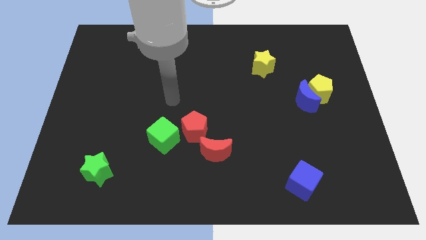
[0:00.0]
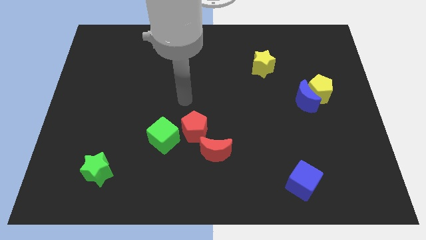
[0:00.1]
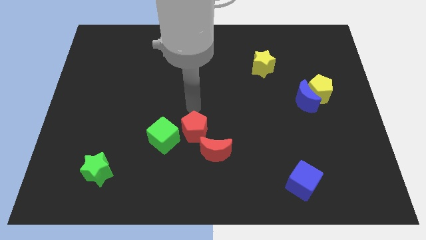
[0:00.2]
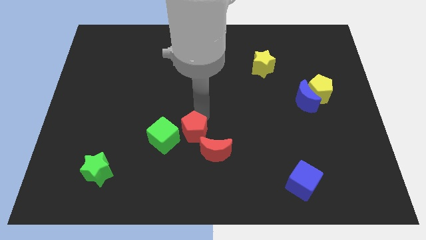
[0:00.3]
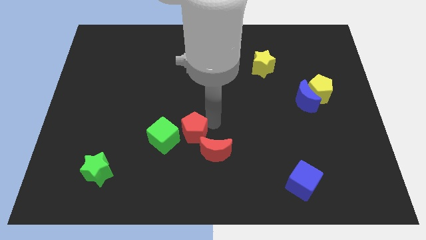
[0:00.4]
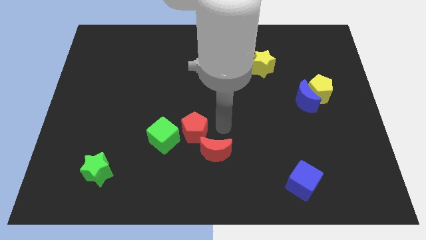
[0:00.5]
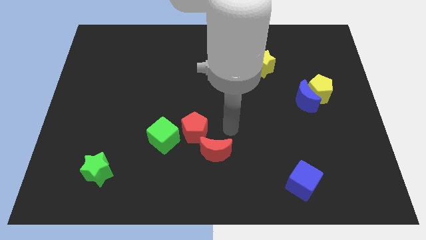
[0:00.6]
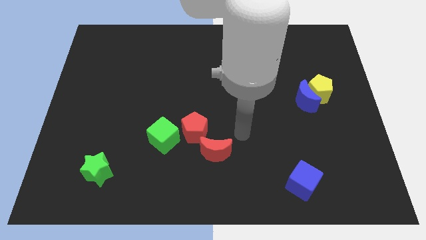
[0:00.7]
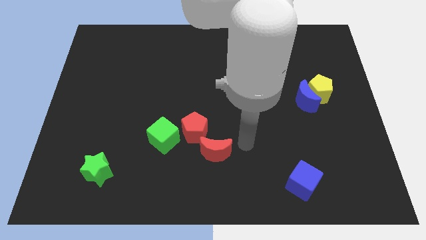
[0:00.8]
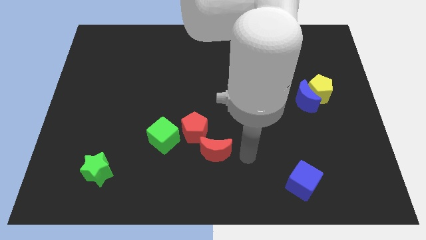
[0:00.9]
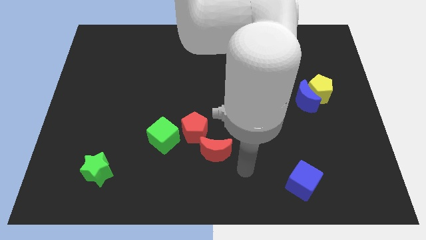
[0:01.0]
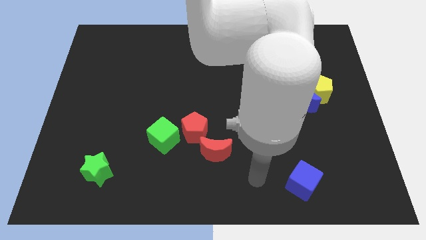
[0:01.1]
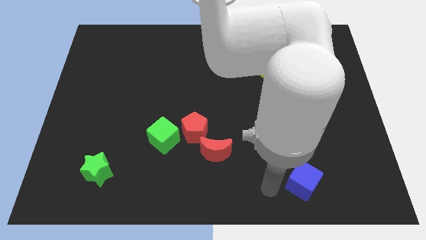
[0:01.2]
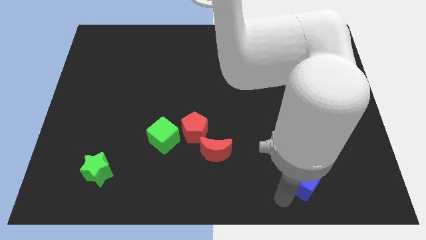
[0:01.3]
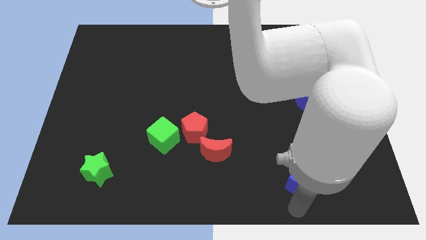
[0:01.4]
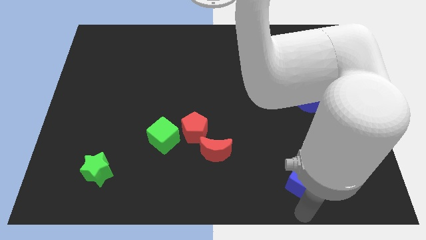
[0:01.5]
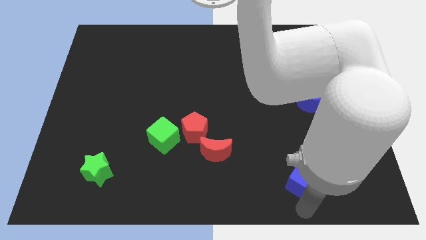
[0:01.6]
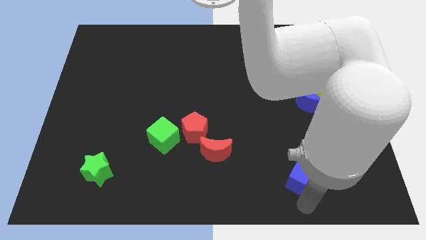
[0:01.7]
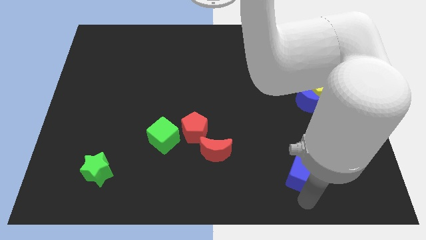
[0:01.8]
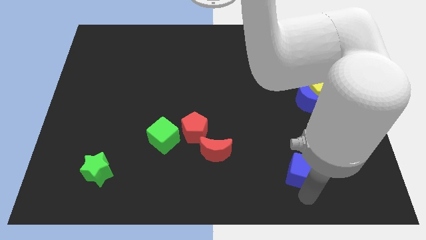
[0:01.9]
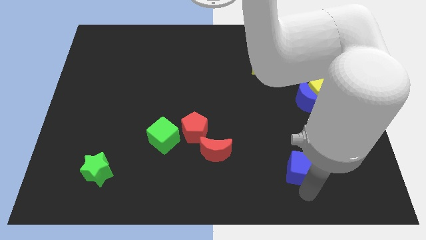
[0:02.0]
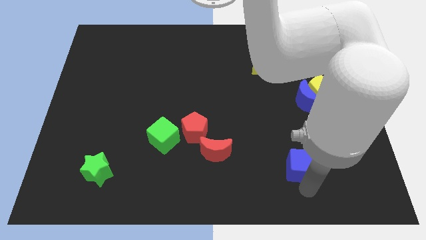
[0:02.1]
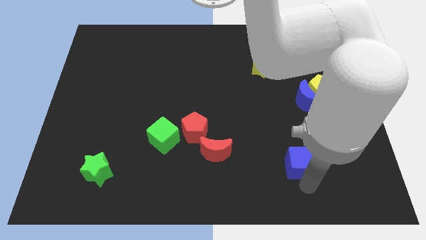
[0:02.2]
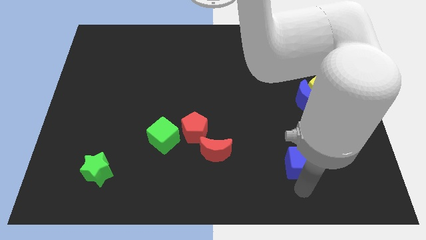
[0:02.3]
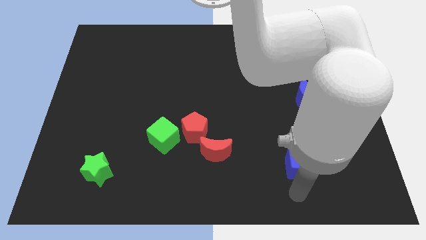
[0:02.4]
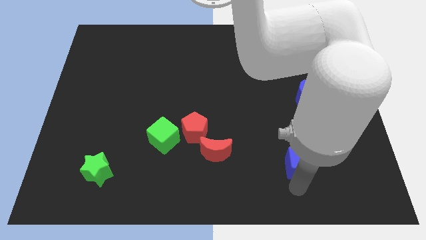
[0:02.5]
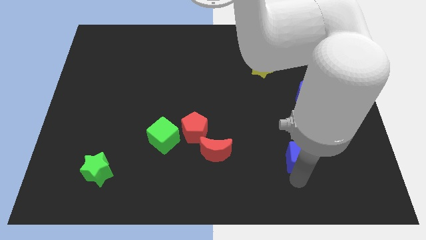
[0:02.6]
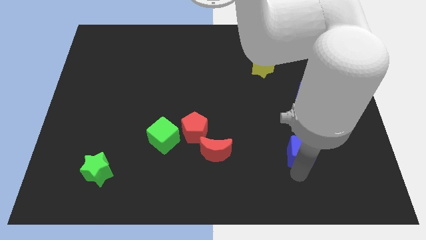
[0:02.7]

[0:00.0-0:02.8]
move the blue cube a little up

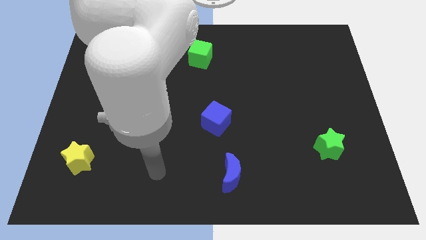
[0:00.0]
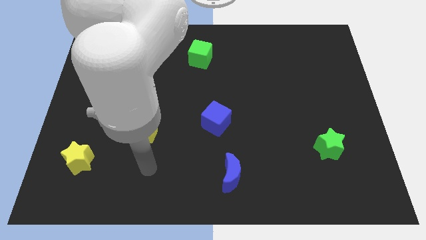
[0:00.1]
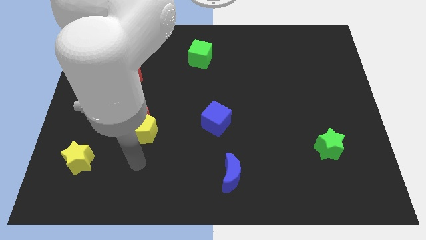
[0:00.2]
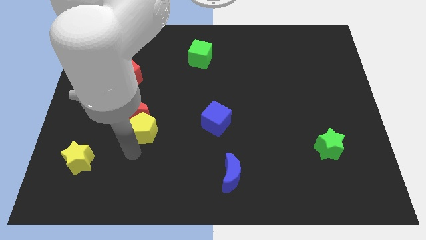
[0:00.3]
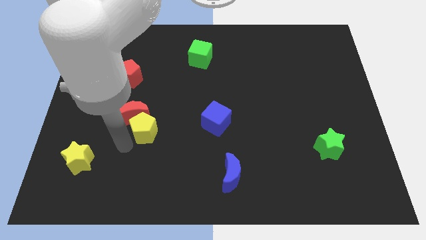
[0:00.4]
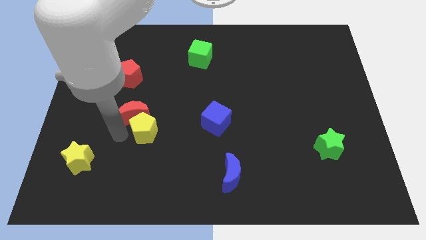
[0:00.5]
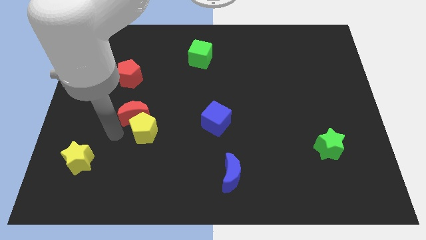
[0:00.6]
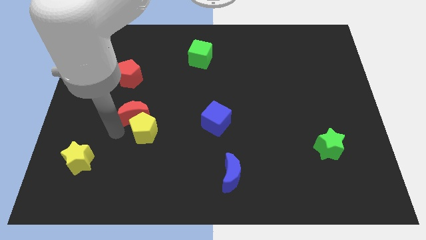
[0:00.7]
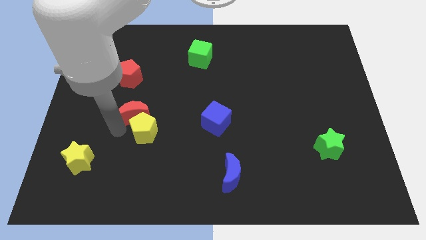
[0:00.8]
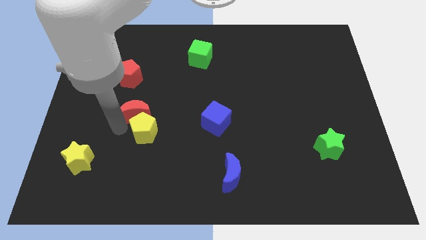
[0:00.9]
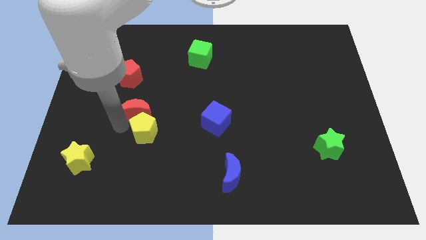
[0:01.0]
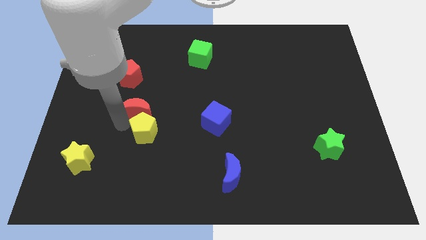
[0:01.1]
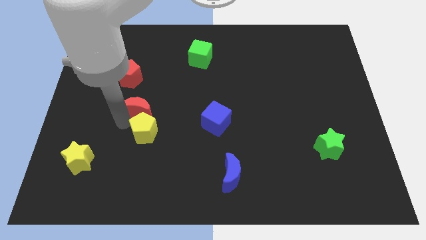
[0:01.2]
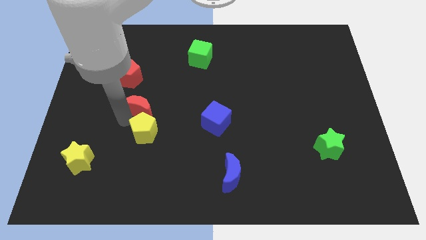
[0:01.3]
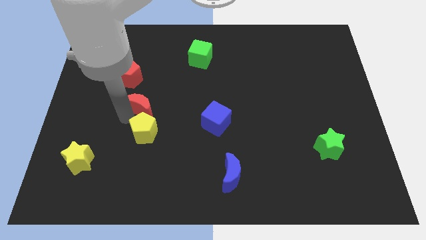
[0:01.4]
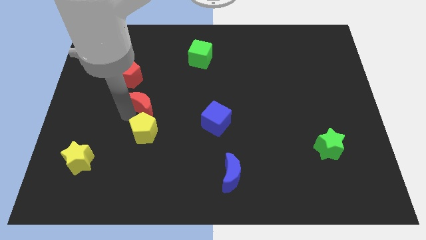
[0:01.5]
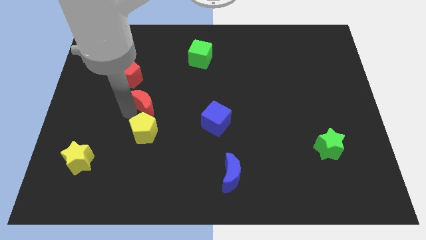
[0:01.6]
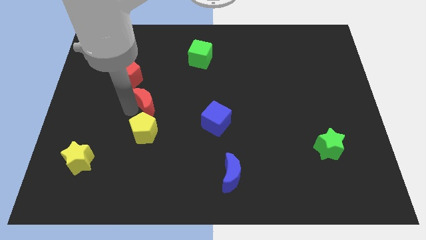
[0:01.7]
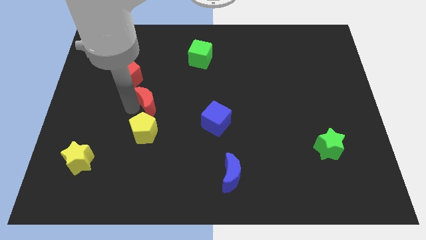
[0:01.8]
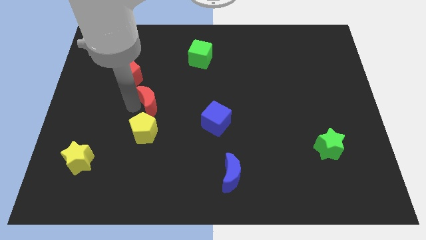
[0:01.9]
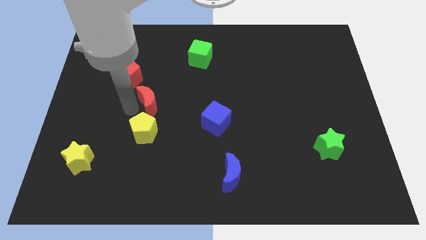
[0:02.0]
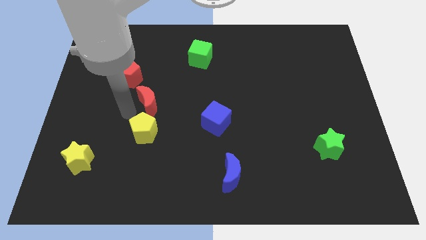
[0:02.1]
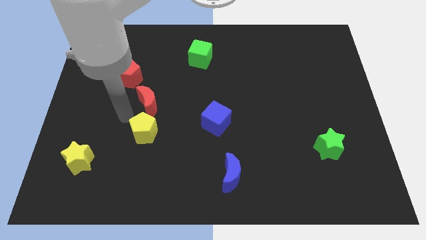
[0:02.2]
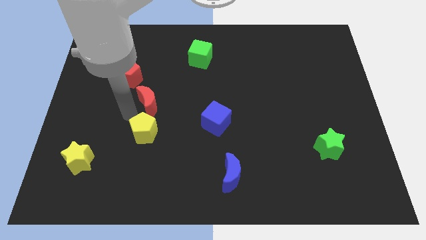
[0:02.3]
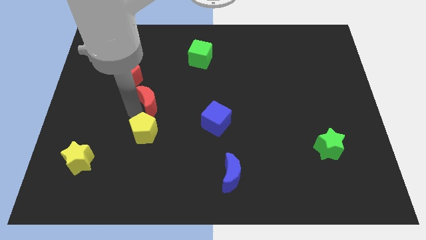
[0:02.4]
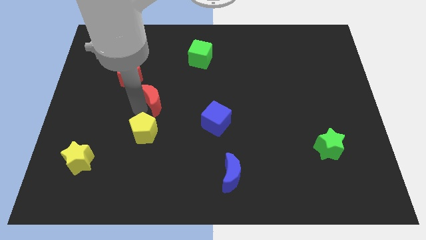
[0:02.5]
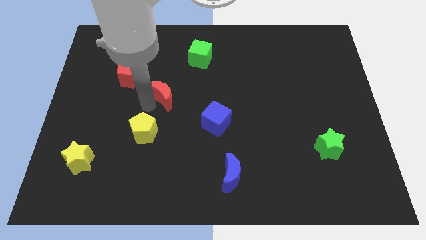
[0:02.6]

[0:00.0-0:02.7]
push the red moon a bit diagonally upwards and to the right

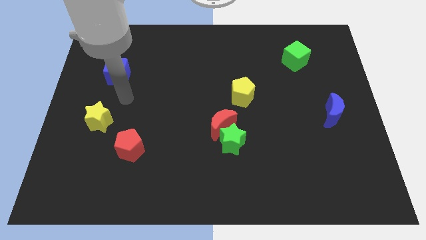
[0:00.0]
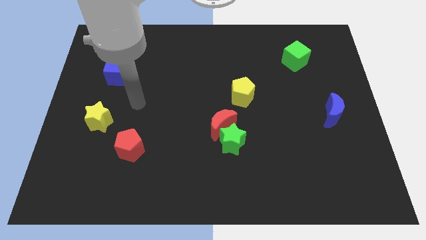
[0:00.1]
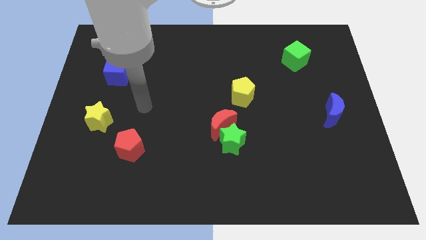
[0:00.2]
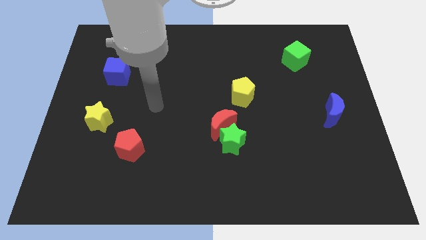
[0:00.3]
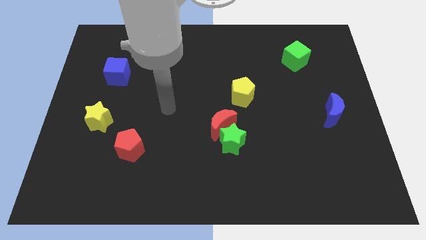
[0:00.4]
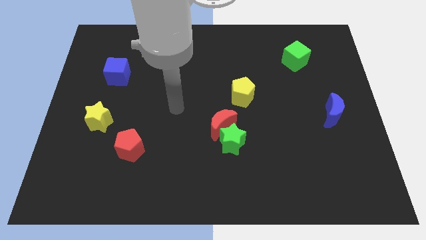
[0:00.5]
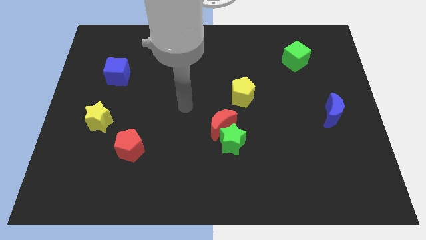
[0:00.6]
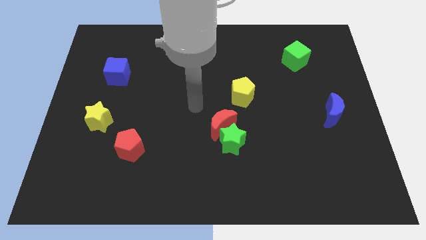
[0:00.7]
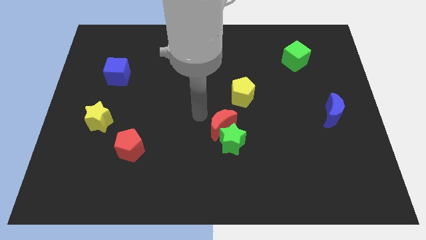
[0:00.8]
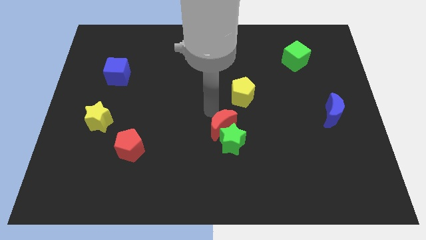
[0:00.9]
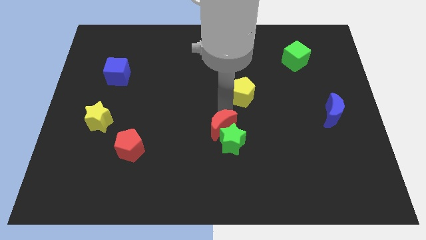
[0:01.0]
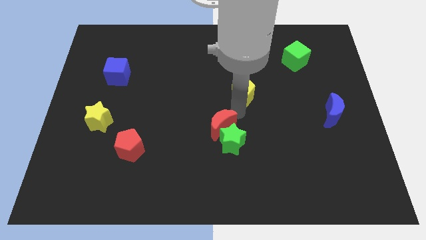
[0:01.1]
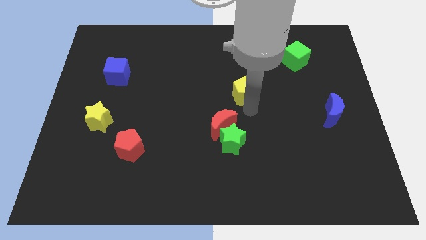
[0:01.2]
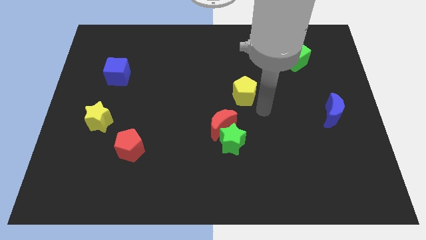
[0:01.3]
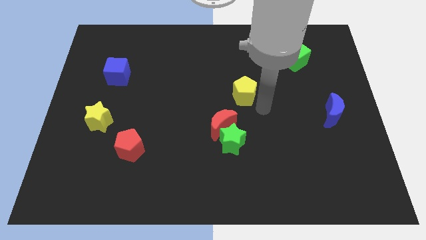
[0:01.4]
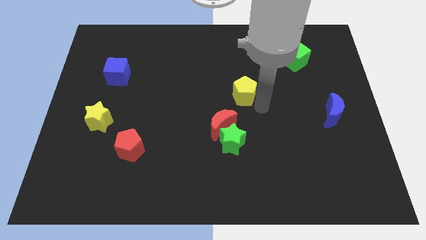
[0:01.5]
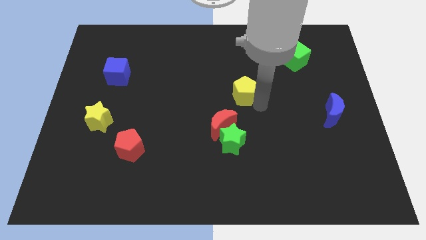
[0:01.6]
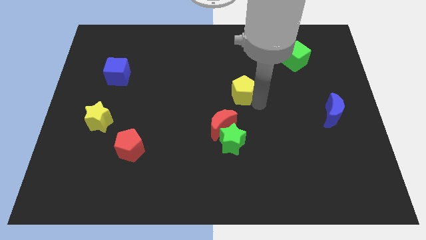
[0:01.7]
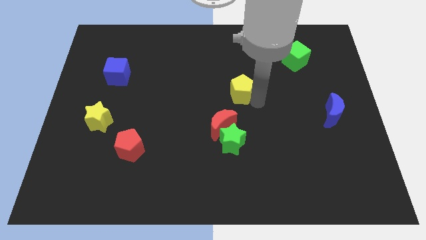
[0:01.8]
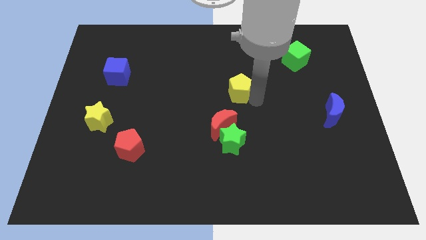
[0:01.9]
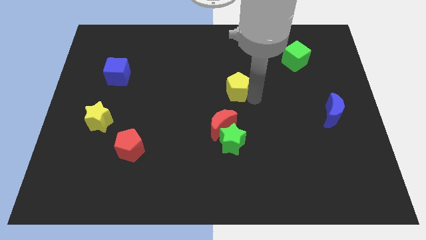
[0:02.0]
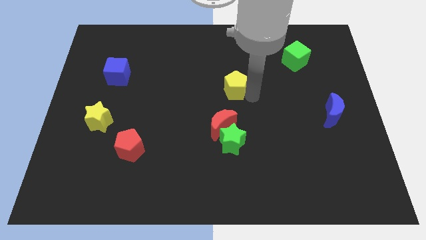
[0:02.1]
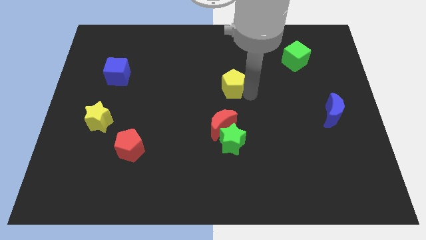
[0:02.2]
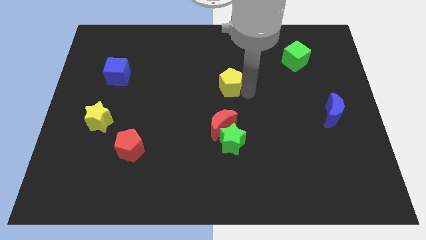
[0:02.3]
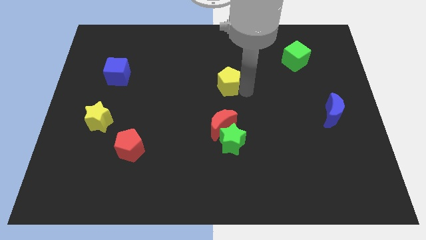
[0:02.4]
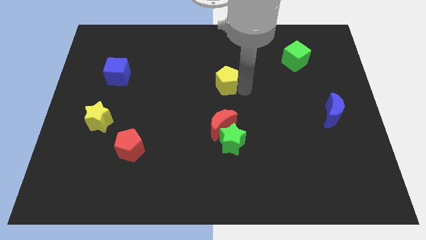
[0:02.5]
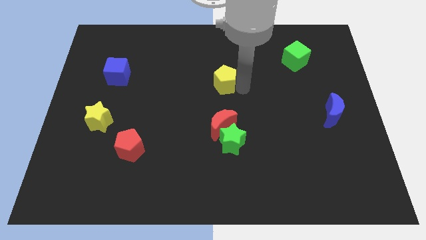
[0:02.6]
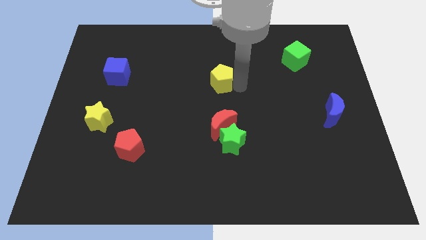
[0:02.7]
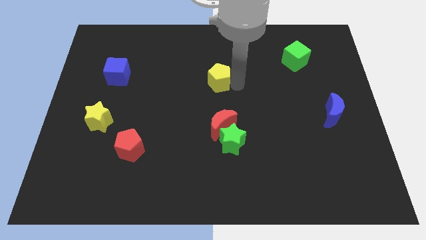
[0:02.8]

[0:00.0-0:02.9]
move the yellow pentagon up and left slightly
